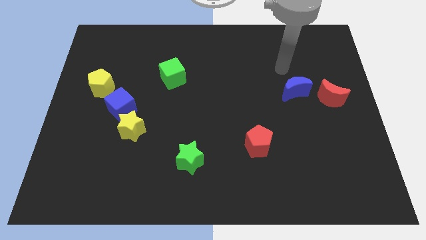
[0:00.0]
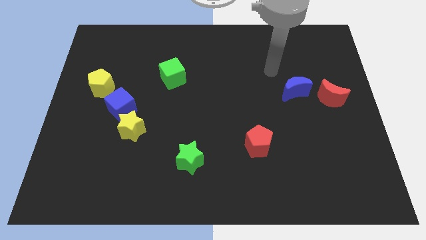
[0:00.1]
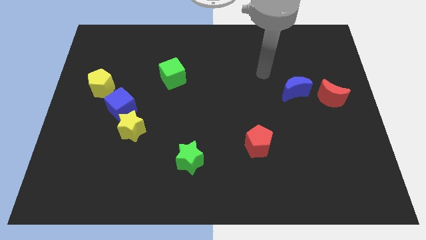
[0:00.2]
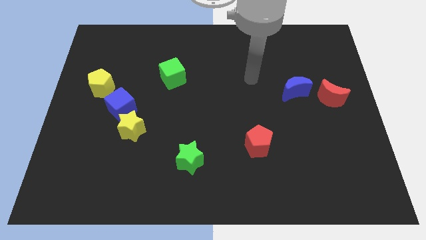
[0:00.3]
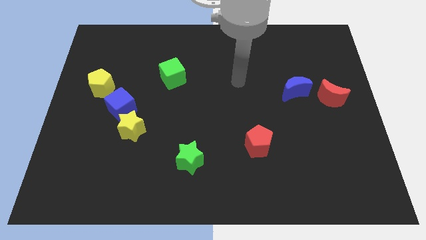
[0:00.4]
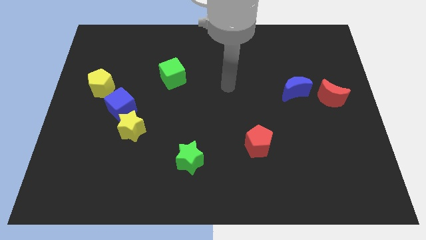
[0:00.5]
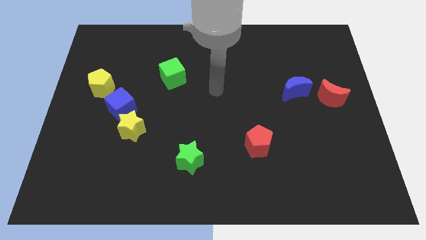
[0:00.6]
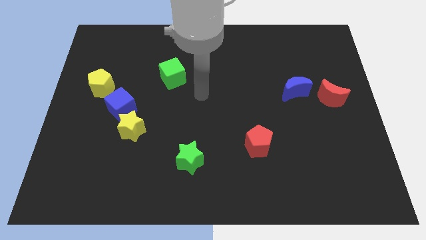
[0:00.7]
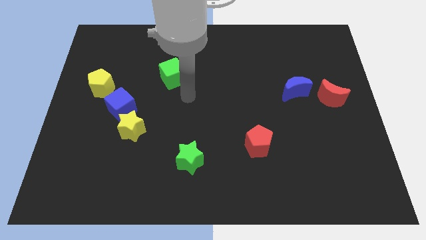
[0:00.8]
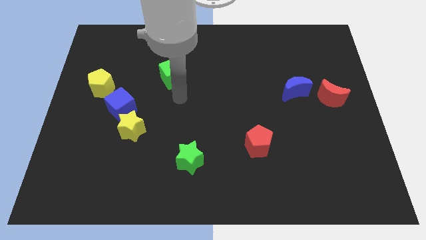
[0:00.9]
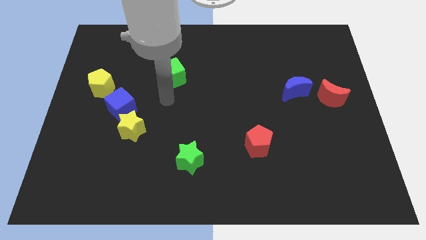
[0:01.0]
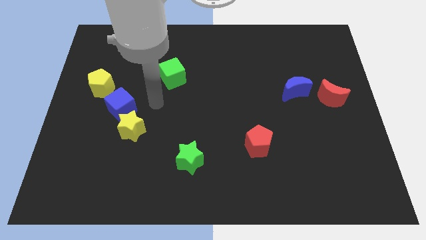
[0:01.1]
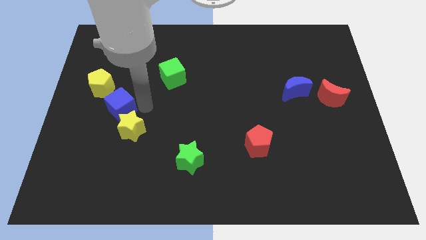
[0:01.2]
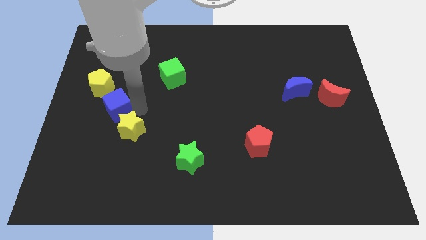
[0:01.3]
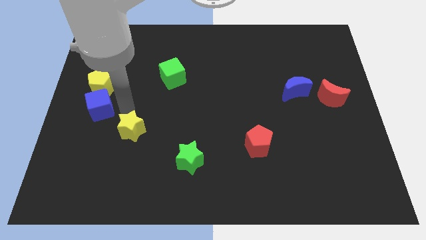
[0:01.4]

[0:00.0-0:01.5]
separate the yellow star from the blue cube

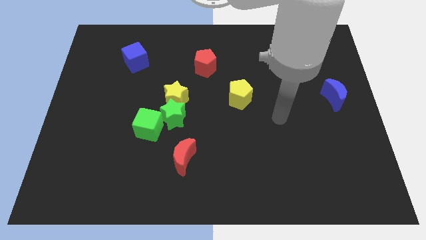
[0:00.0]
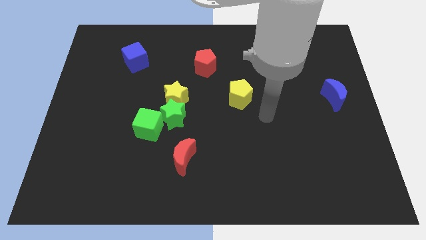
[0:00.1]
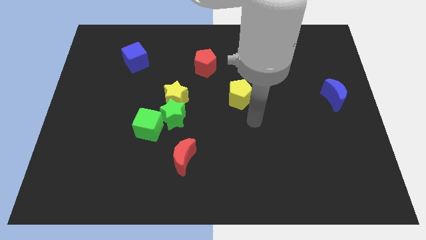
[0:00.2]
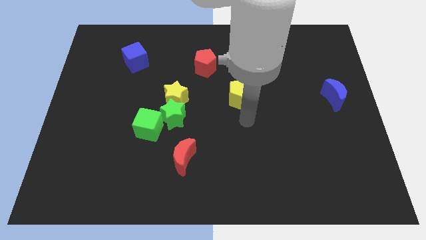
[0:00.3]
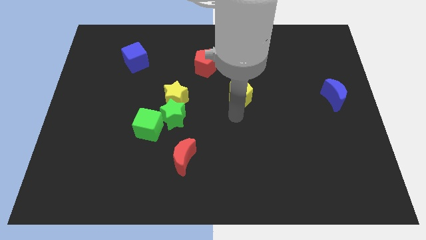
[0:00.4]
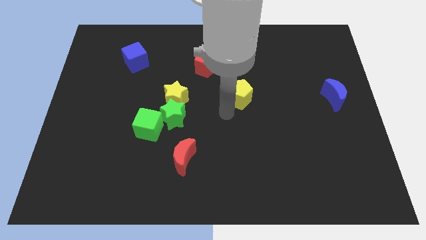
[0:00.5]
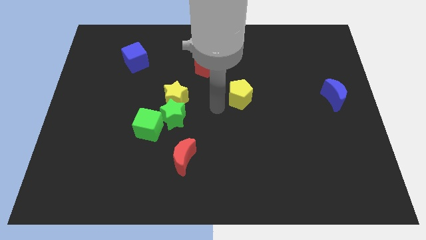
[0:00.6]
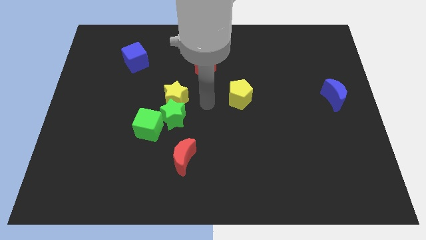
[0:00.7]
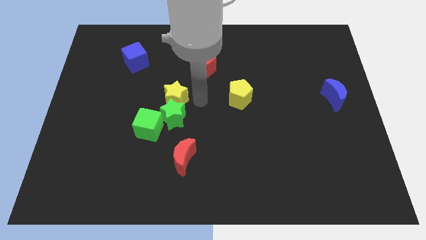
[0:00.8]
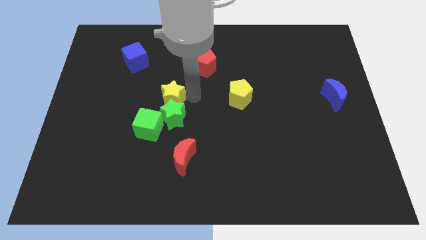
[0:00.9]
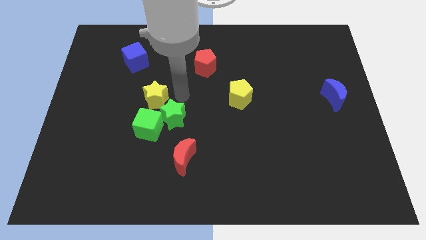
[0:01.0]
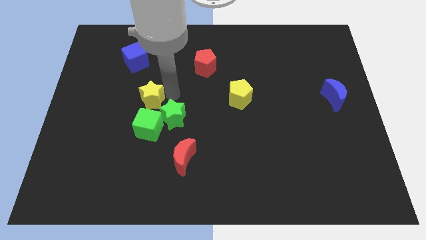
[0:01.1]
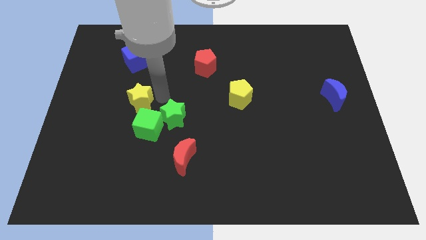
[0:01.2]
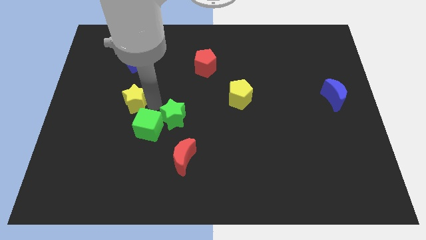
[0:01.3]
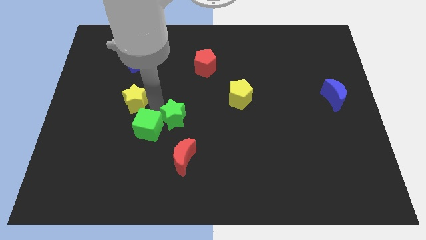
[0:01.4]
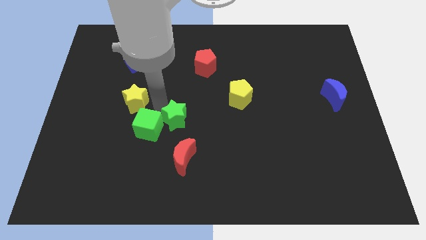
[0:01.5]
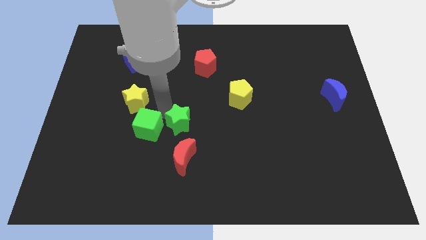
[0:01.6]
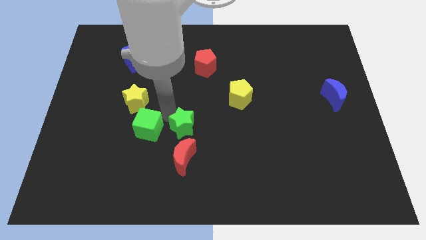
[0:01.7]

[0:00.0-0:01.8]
pull the green star apart from the yellow star and green cube

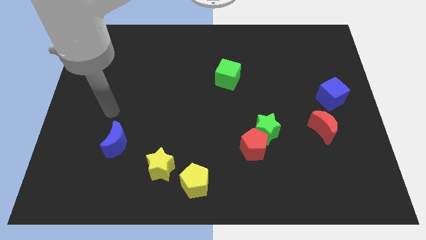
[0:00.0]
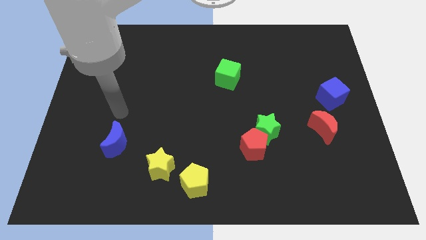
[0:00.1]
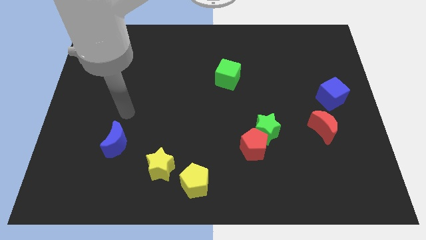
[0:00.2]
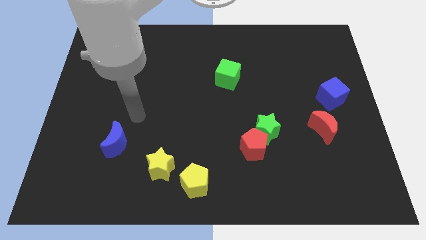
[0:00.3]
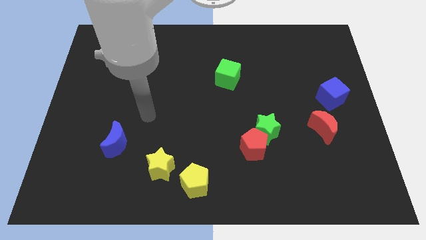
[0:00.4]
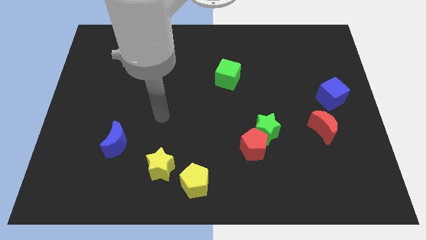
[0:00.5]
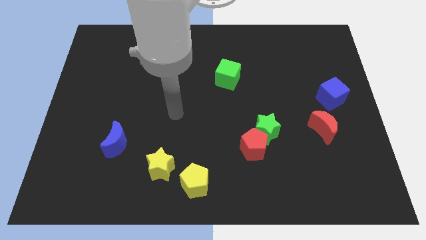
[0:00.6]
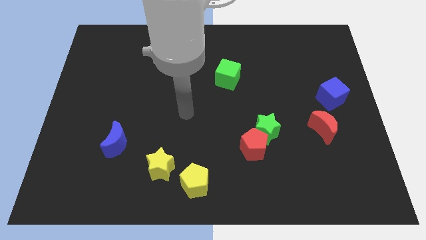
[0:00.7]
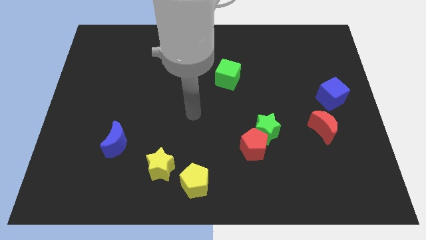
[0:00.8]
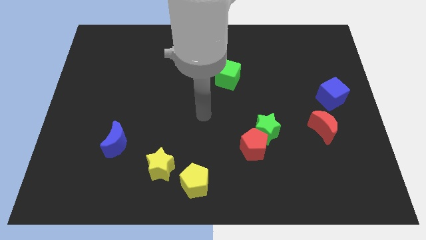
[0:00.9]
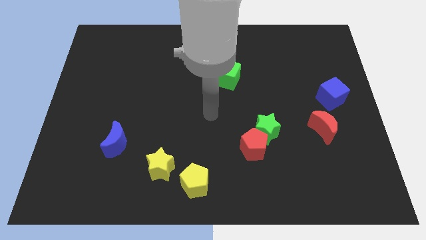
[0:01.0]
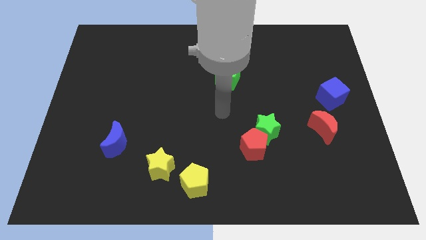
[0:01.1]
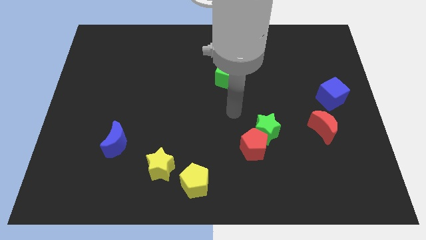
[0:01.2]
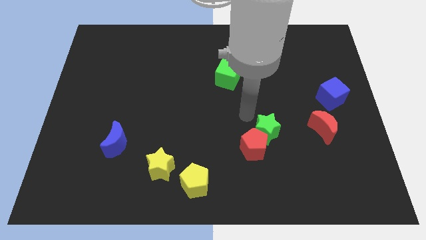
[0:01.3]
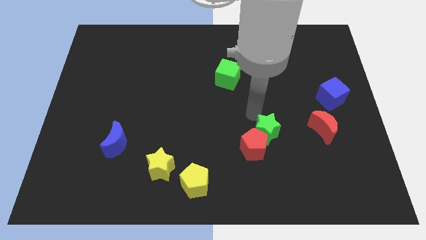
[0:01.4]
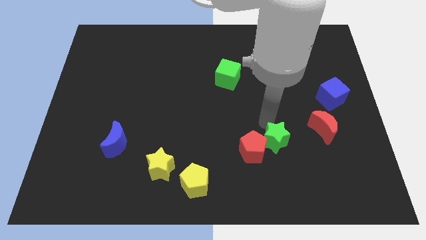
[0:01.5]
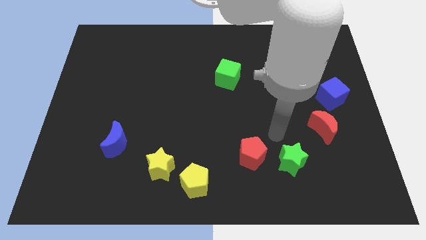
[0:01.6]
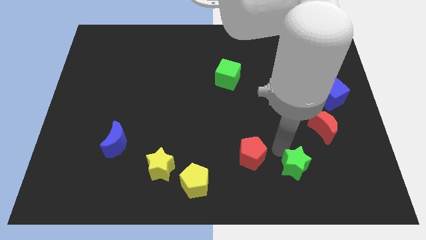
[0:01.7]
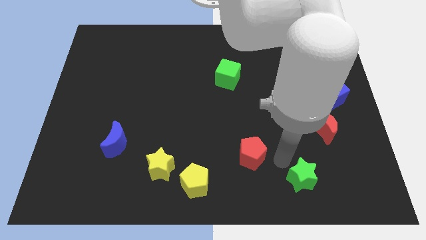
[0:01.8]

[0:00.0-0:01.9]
move the red pentagon away from the green star

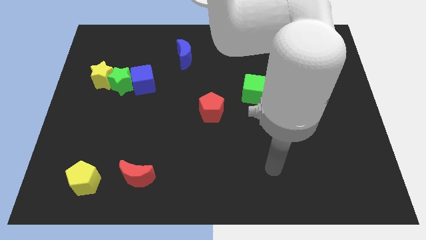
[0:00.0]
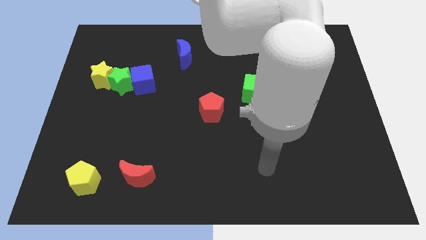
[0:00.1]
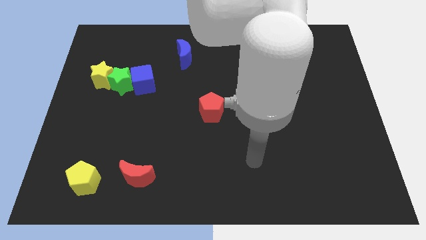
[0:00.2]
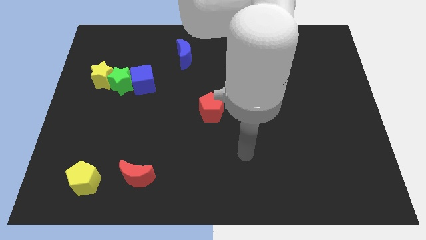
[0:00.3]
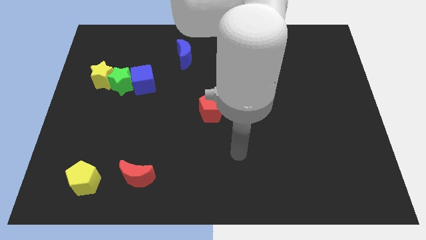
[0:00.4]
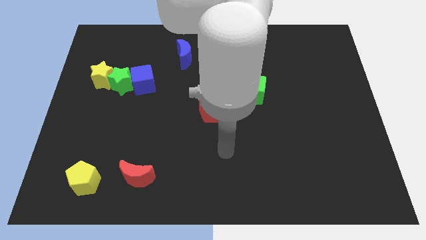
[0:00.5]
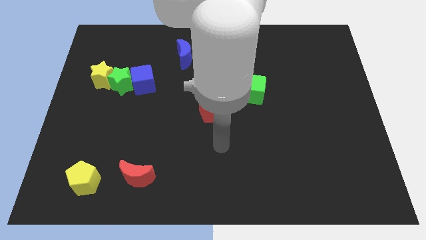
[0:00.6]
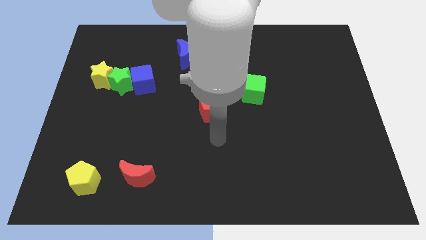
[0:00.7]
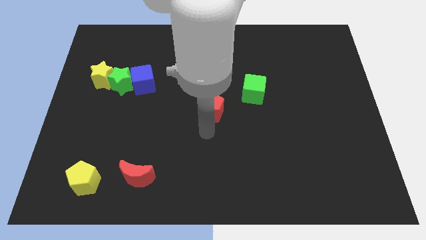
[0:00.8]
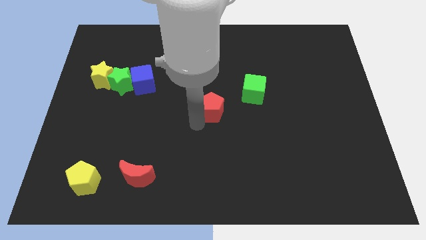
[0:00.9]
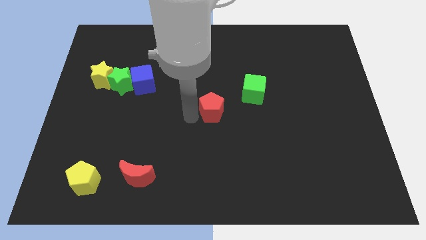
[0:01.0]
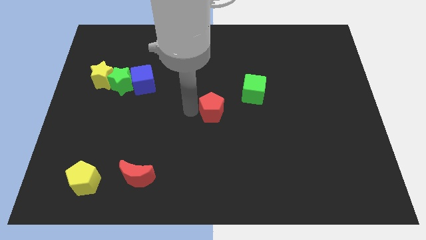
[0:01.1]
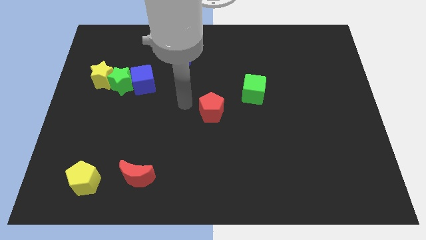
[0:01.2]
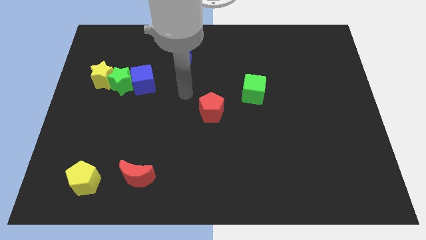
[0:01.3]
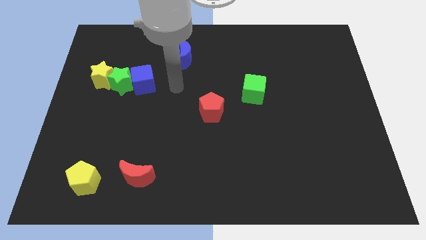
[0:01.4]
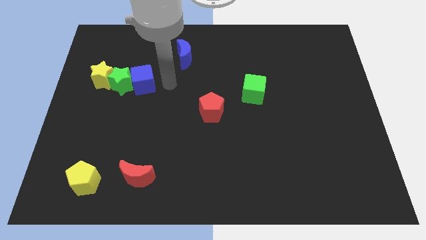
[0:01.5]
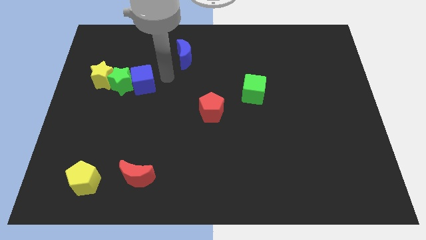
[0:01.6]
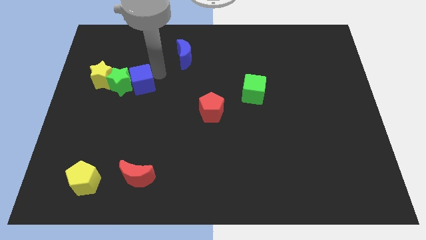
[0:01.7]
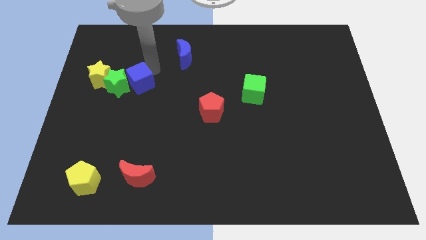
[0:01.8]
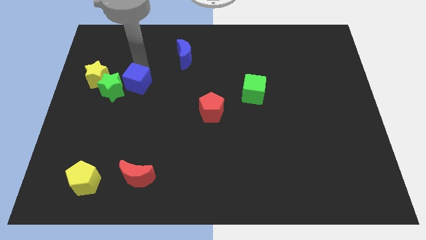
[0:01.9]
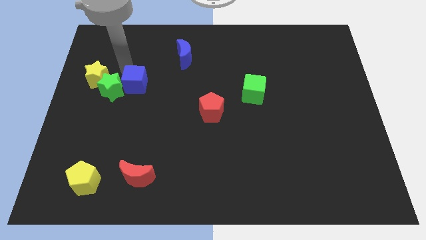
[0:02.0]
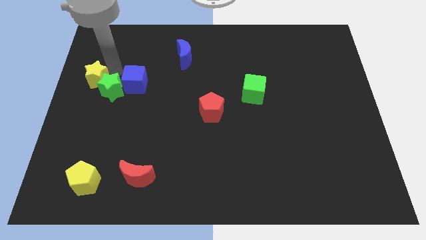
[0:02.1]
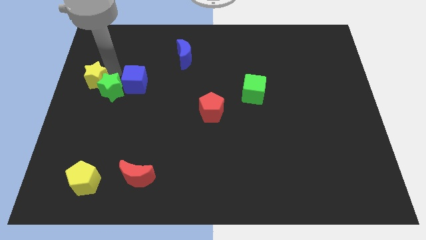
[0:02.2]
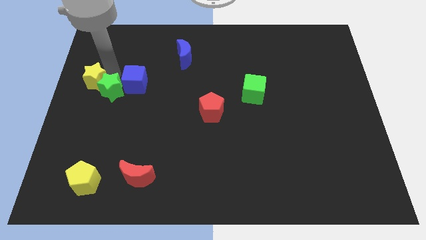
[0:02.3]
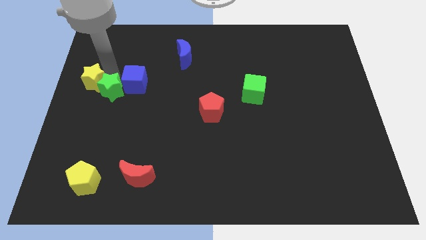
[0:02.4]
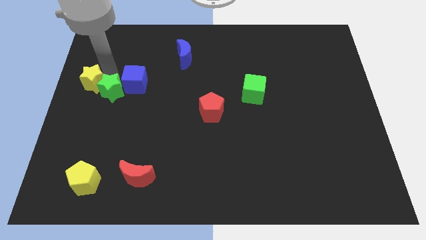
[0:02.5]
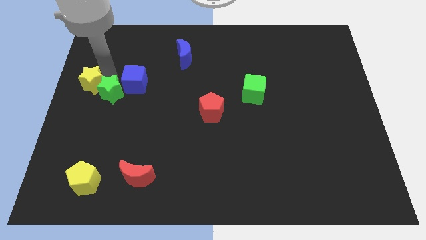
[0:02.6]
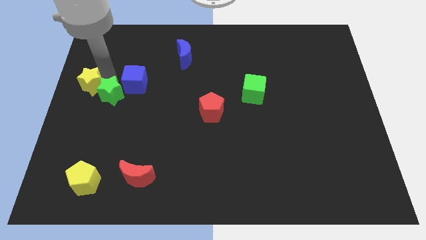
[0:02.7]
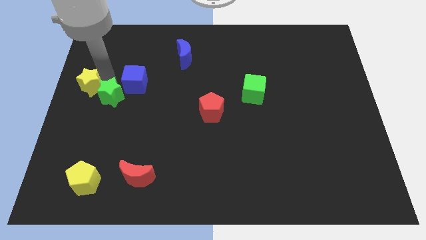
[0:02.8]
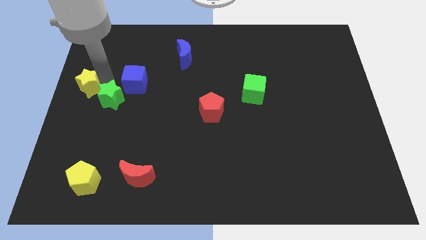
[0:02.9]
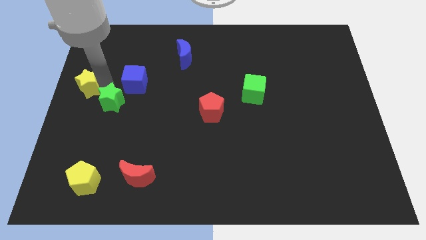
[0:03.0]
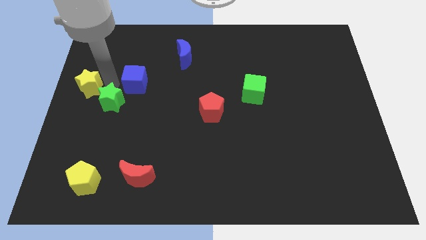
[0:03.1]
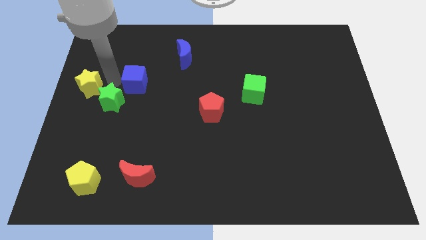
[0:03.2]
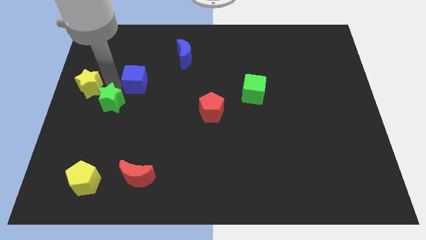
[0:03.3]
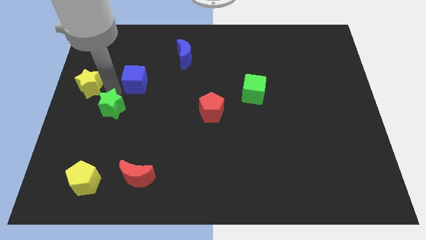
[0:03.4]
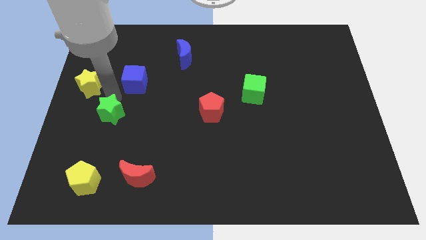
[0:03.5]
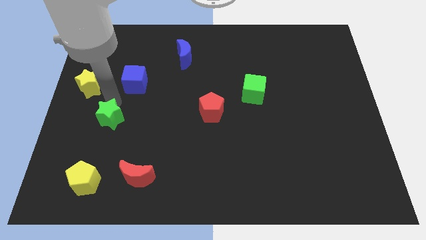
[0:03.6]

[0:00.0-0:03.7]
pull the green star apart from the blue cube and yellow star

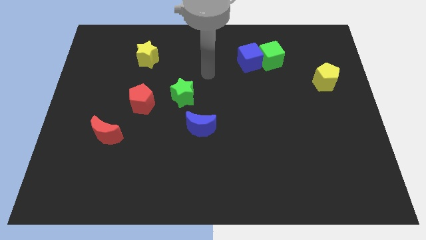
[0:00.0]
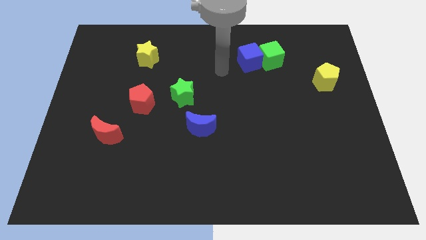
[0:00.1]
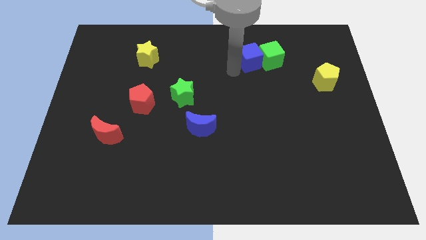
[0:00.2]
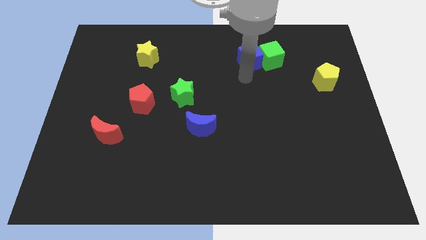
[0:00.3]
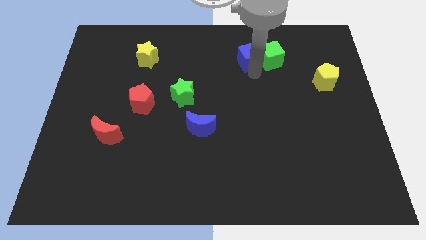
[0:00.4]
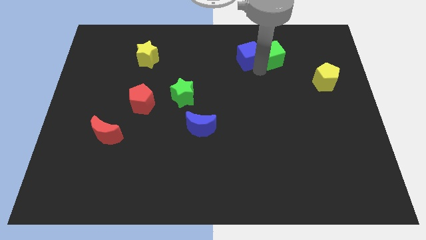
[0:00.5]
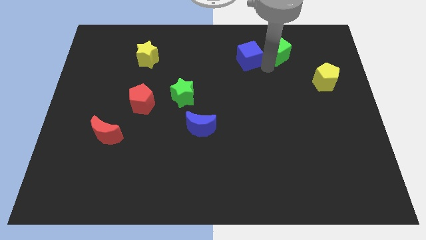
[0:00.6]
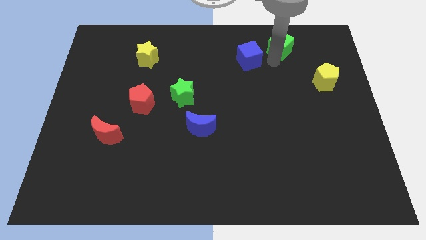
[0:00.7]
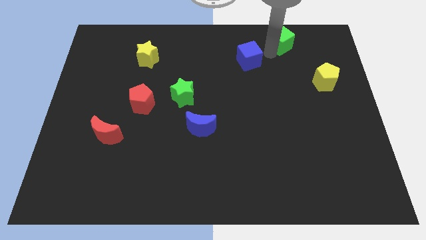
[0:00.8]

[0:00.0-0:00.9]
move the blue cube away from the green cube
